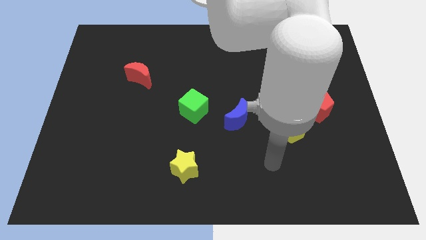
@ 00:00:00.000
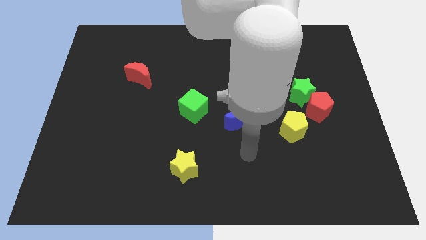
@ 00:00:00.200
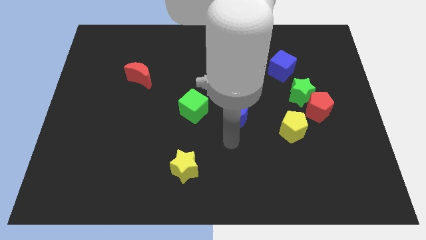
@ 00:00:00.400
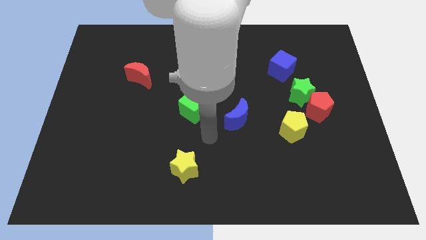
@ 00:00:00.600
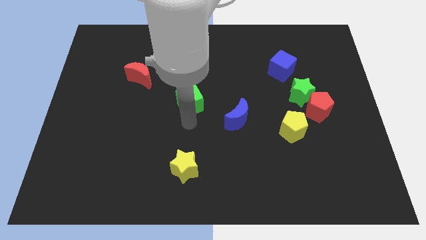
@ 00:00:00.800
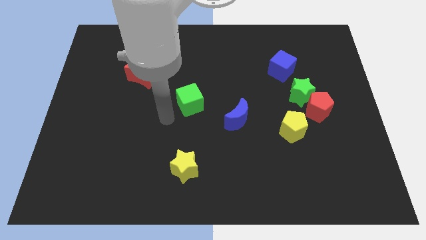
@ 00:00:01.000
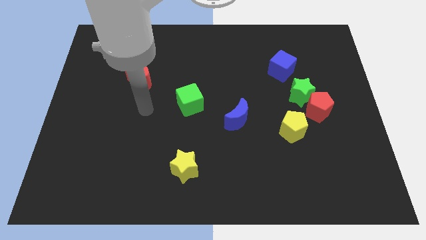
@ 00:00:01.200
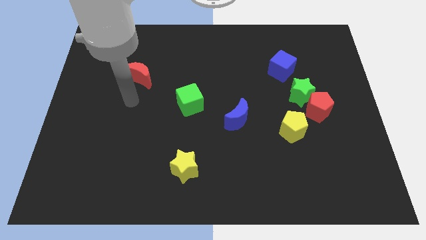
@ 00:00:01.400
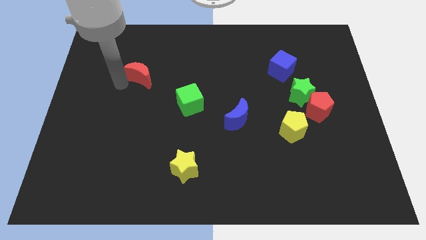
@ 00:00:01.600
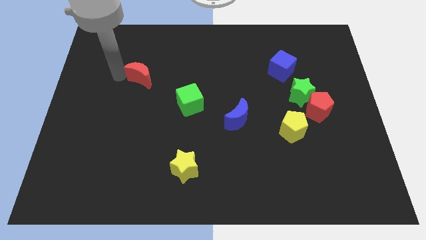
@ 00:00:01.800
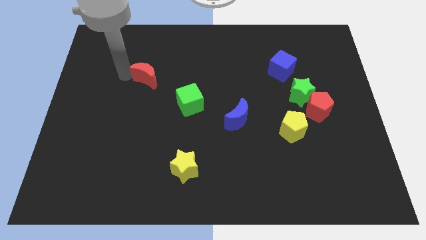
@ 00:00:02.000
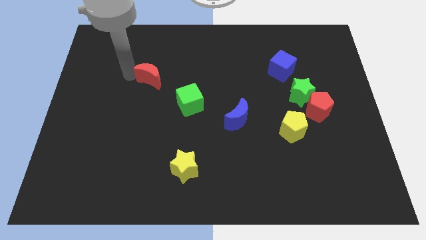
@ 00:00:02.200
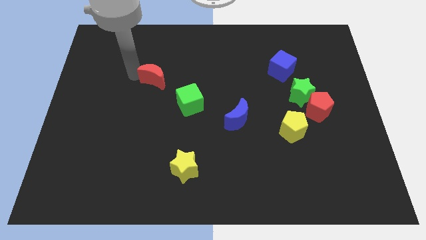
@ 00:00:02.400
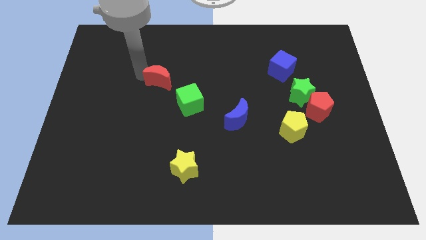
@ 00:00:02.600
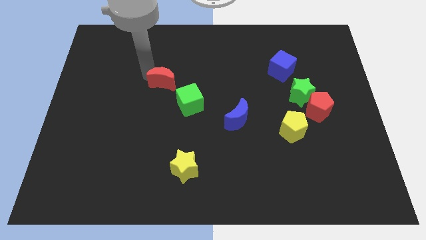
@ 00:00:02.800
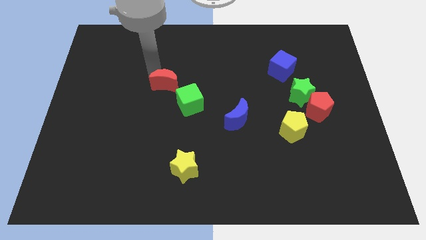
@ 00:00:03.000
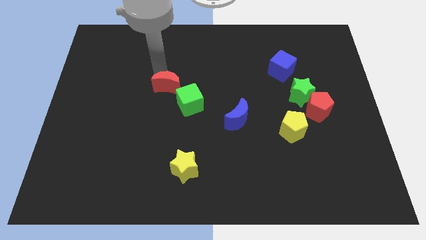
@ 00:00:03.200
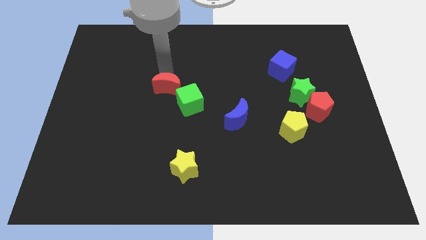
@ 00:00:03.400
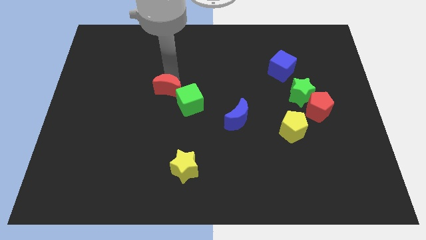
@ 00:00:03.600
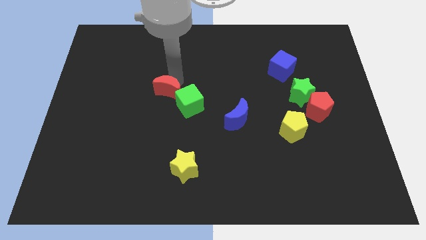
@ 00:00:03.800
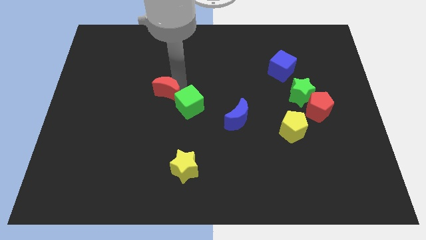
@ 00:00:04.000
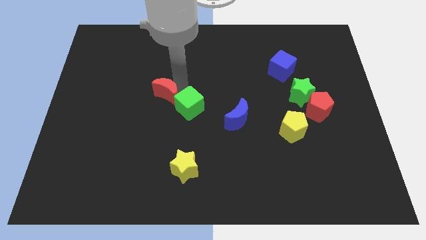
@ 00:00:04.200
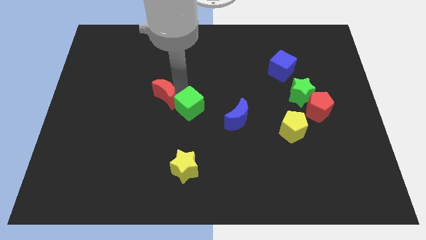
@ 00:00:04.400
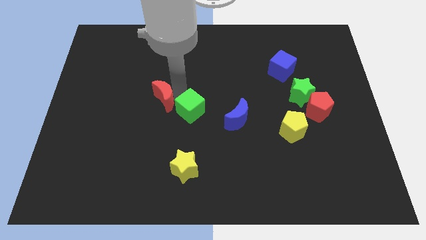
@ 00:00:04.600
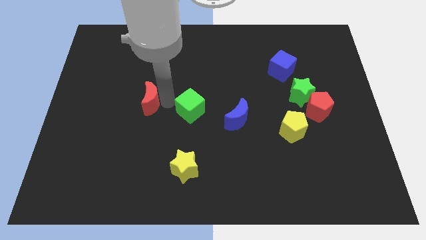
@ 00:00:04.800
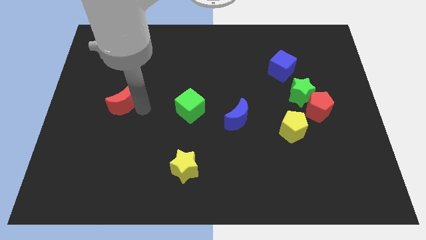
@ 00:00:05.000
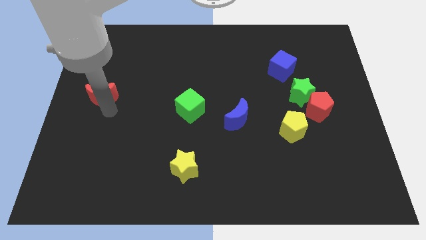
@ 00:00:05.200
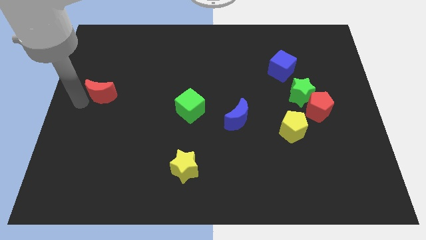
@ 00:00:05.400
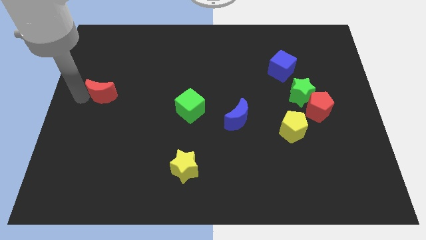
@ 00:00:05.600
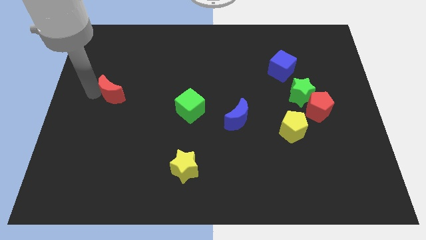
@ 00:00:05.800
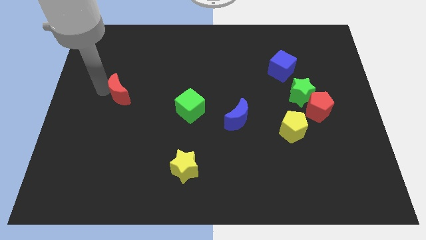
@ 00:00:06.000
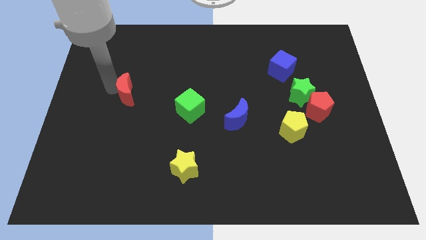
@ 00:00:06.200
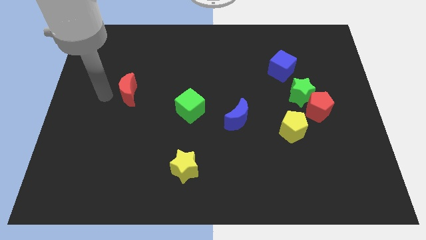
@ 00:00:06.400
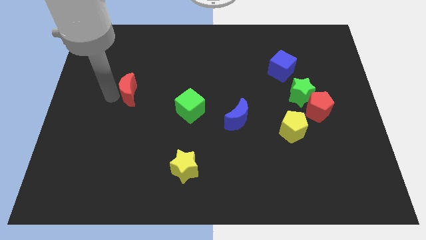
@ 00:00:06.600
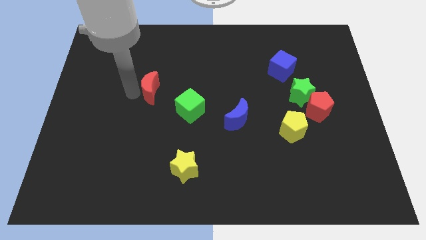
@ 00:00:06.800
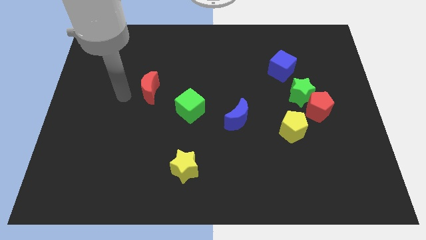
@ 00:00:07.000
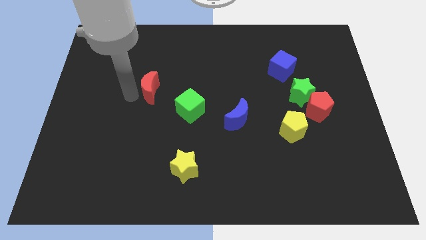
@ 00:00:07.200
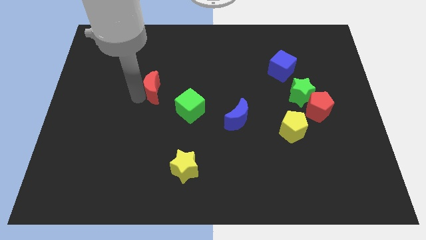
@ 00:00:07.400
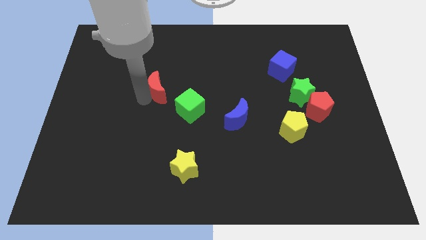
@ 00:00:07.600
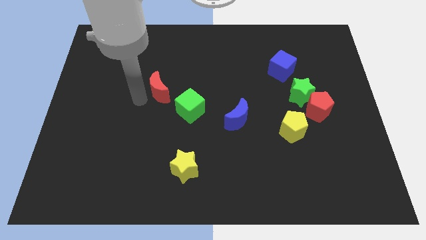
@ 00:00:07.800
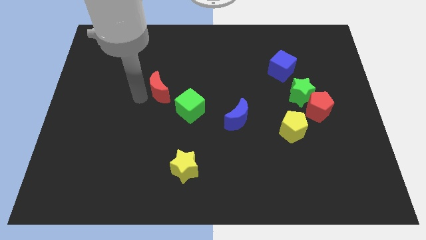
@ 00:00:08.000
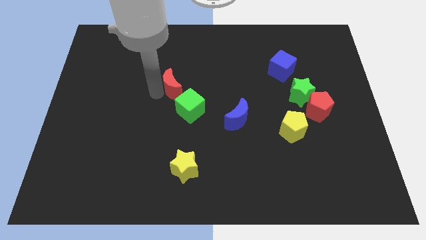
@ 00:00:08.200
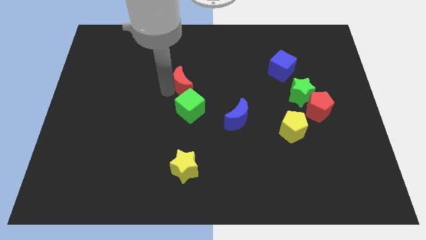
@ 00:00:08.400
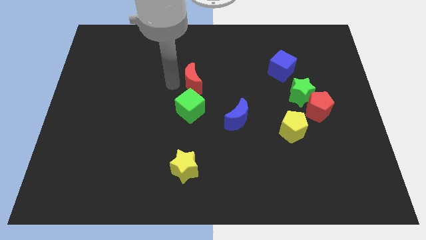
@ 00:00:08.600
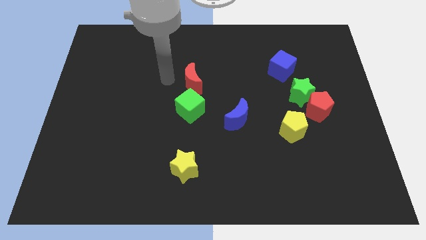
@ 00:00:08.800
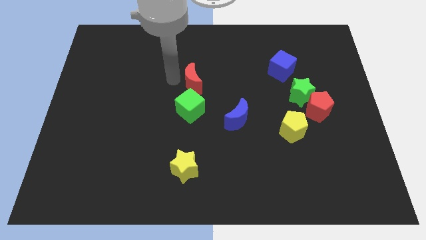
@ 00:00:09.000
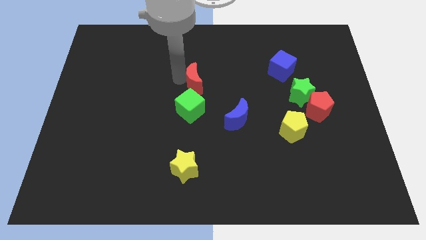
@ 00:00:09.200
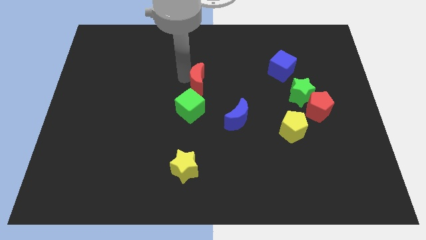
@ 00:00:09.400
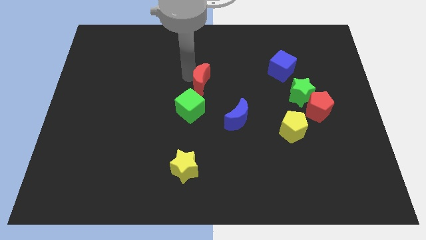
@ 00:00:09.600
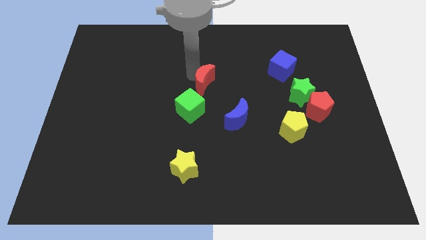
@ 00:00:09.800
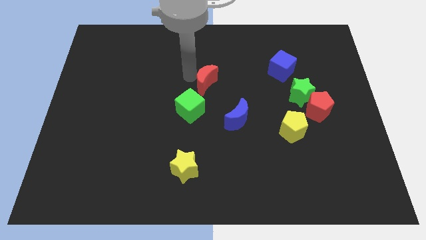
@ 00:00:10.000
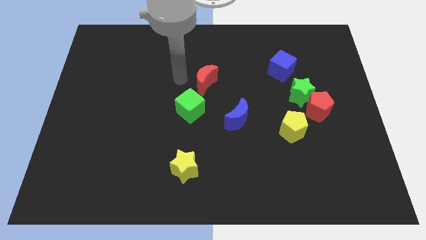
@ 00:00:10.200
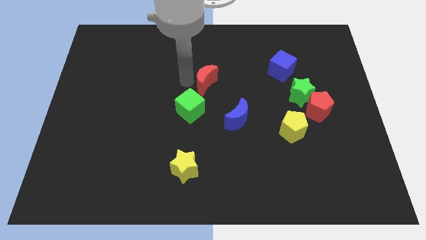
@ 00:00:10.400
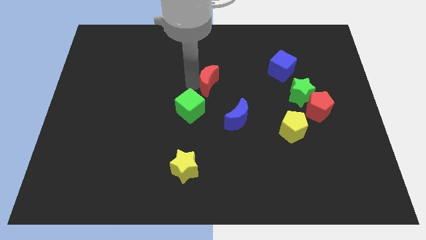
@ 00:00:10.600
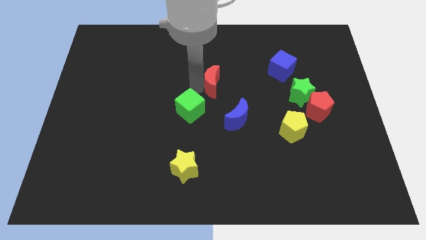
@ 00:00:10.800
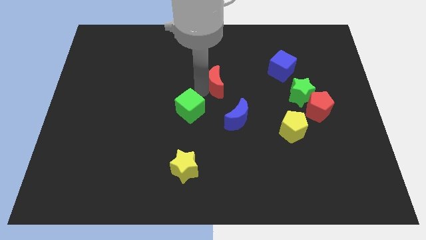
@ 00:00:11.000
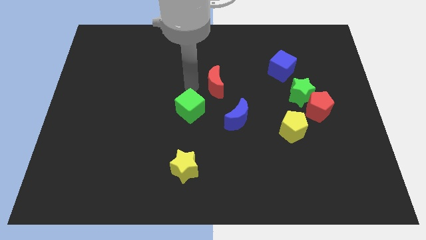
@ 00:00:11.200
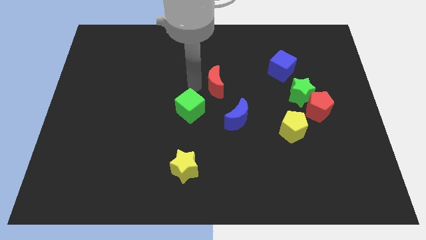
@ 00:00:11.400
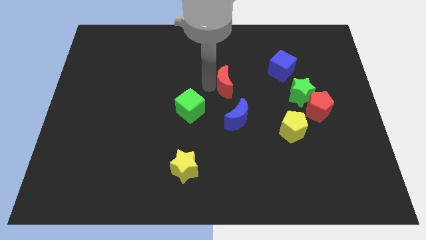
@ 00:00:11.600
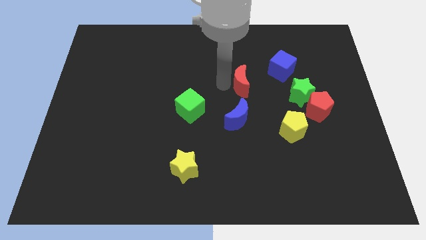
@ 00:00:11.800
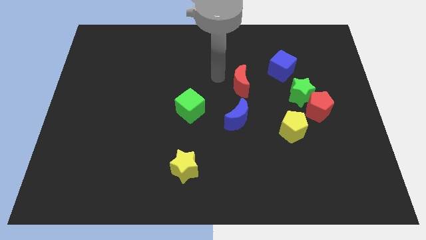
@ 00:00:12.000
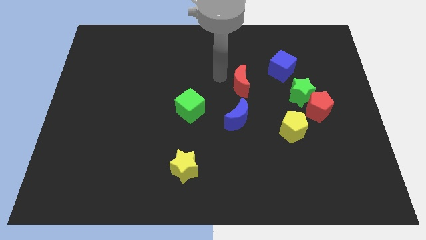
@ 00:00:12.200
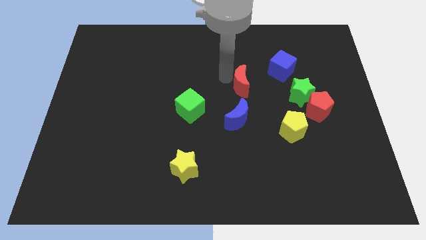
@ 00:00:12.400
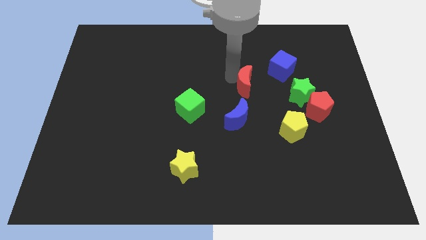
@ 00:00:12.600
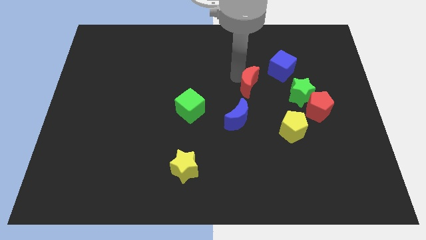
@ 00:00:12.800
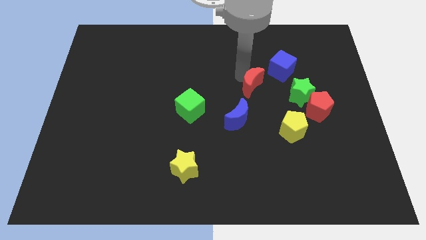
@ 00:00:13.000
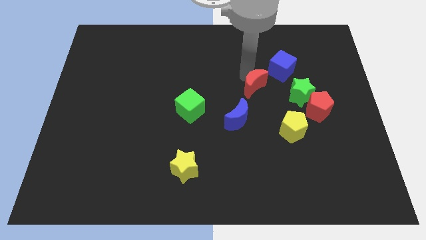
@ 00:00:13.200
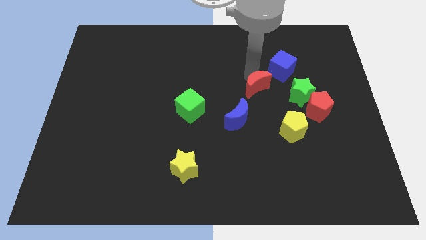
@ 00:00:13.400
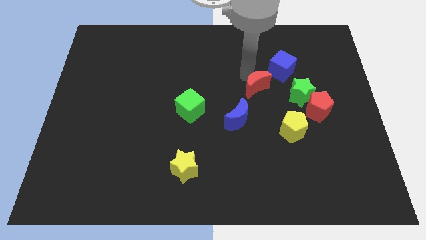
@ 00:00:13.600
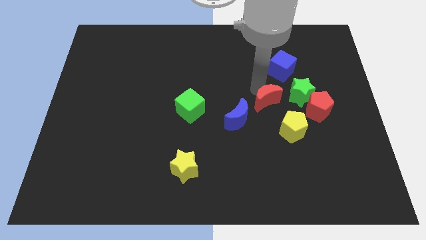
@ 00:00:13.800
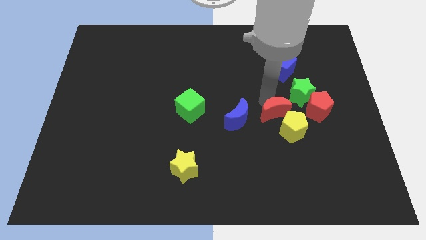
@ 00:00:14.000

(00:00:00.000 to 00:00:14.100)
put the red moon to the yellow pentagon
